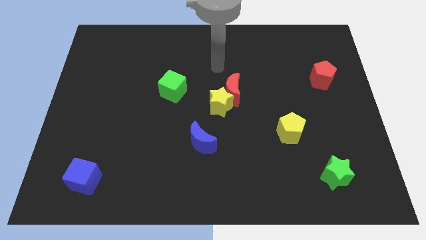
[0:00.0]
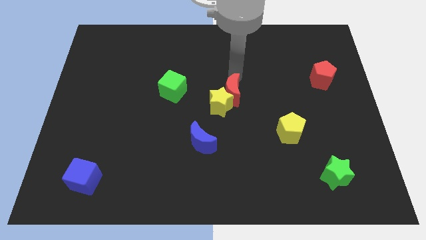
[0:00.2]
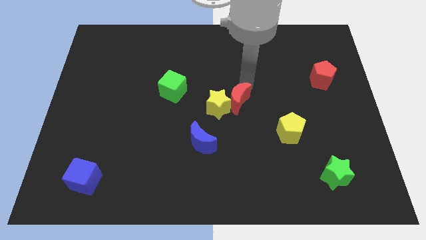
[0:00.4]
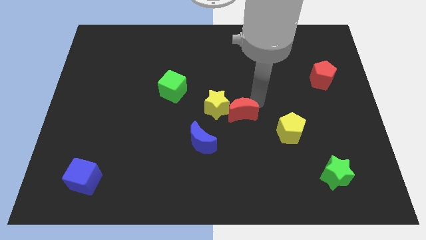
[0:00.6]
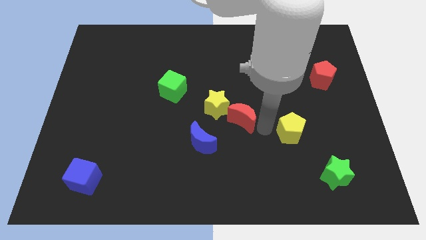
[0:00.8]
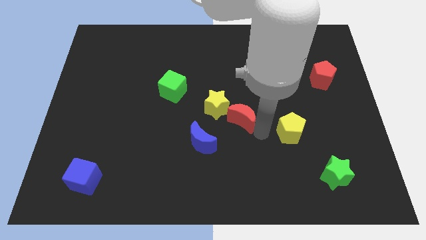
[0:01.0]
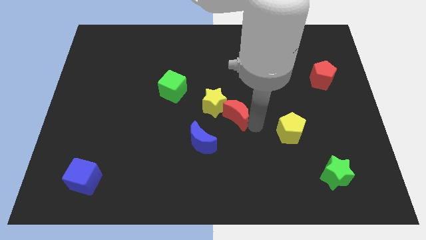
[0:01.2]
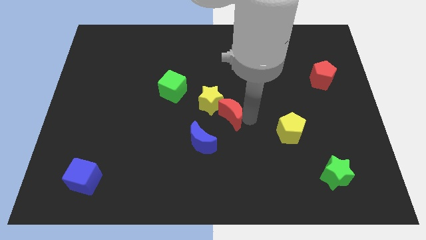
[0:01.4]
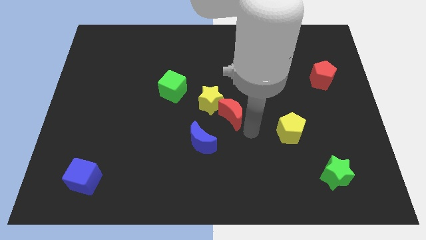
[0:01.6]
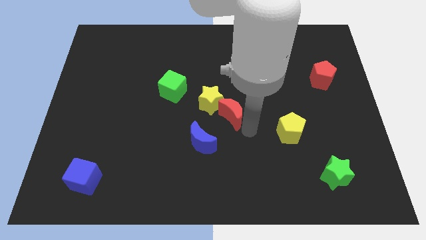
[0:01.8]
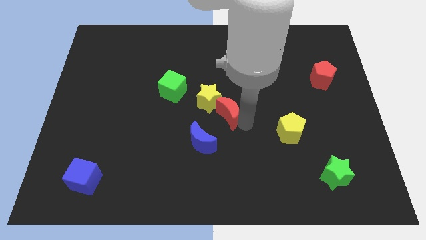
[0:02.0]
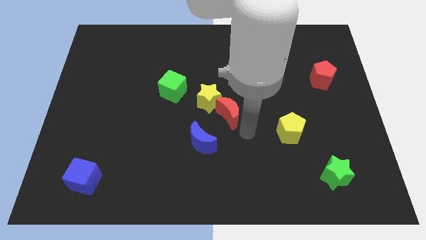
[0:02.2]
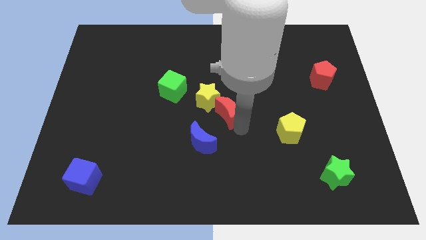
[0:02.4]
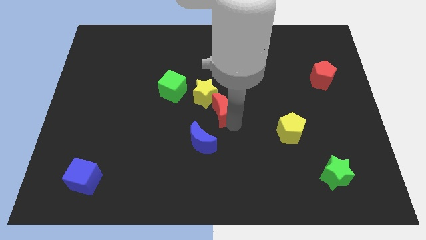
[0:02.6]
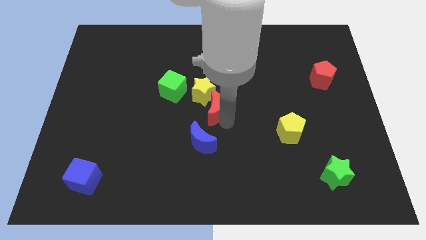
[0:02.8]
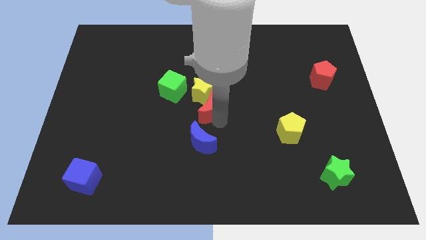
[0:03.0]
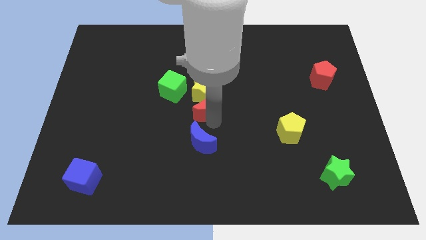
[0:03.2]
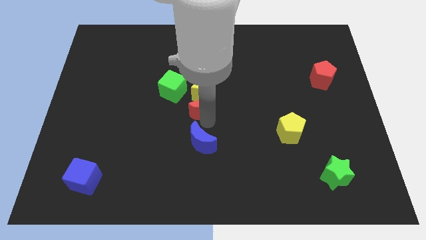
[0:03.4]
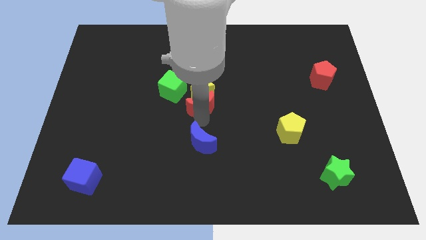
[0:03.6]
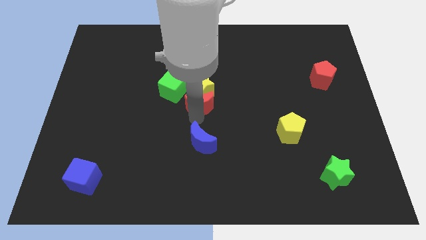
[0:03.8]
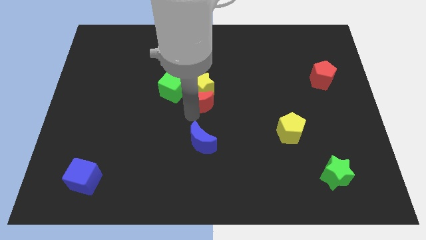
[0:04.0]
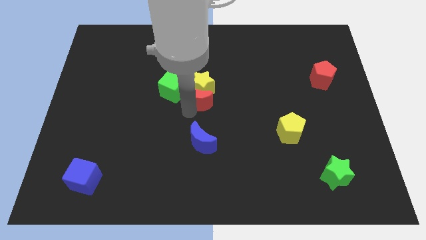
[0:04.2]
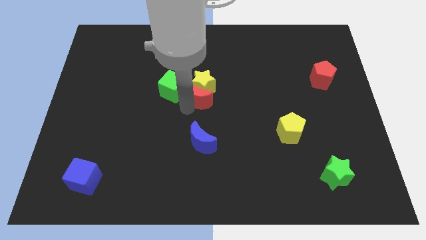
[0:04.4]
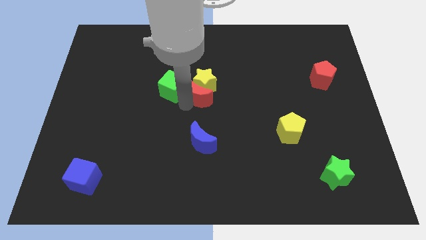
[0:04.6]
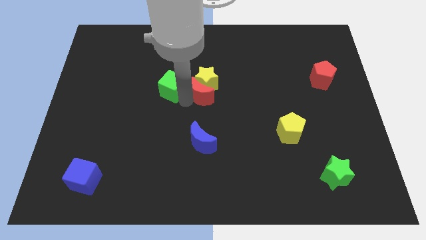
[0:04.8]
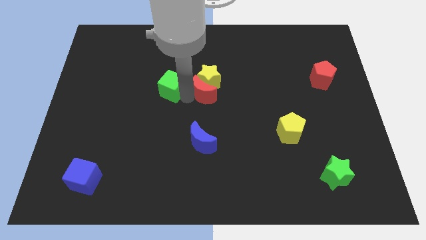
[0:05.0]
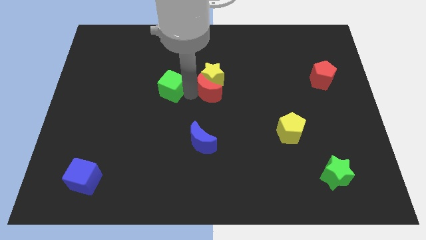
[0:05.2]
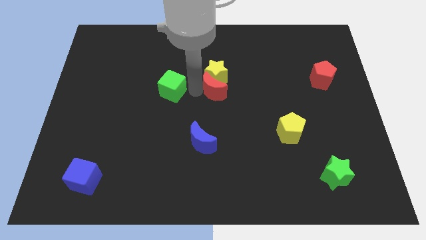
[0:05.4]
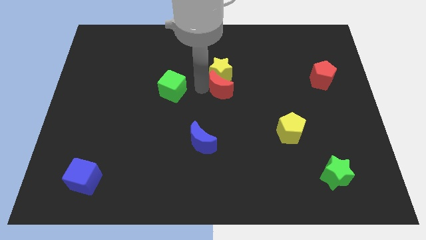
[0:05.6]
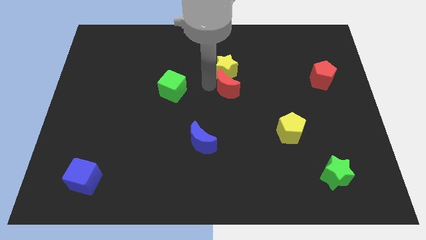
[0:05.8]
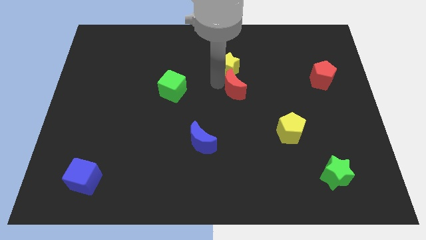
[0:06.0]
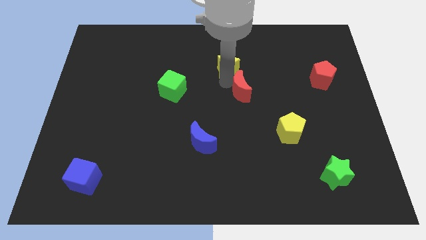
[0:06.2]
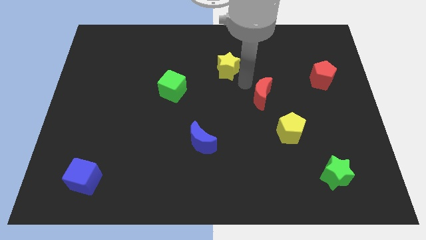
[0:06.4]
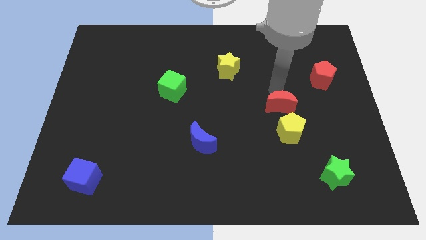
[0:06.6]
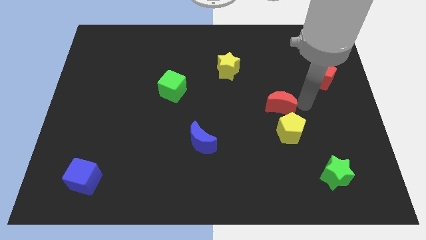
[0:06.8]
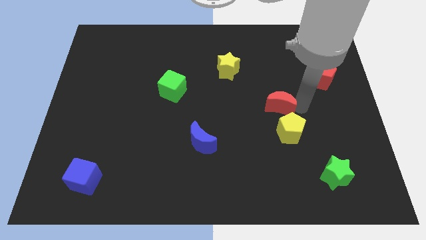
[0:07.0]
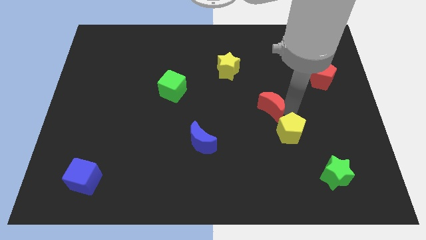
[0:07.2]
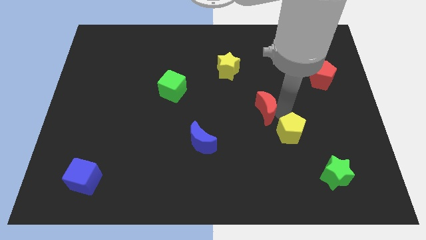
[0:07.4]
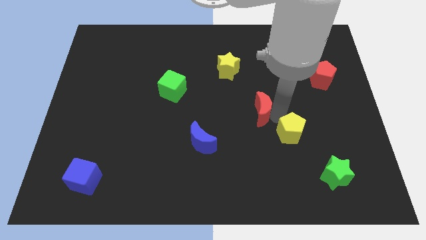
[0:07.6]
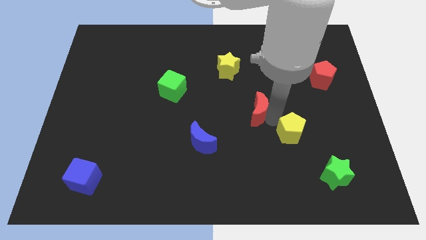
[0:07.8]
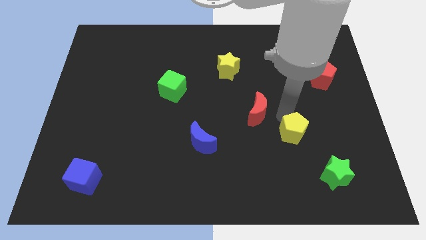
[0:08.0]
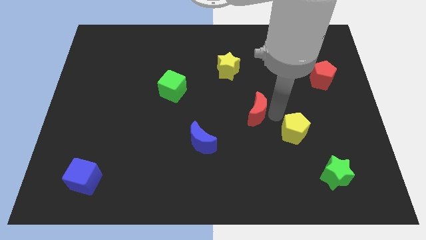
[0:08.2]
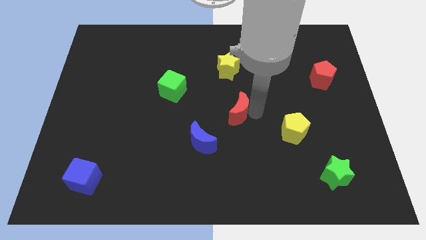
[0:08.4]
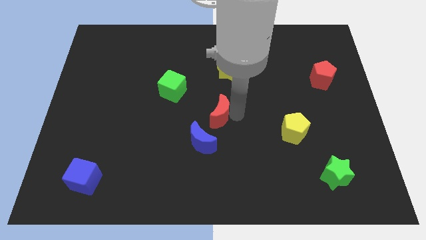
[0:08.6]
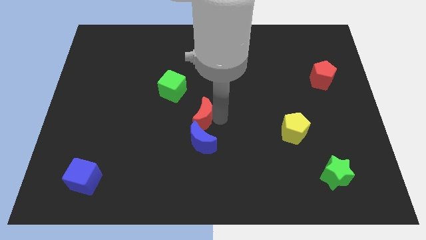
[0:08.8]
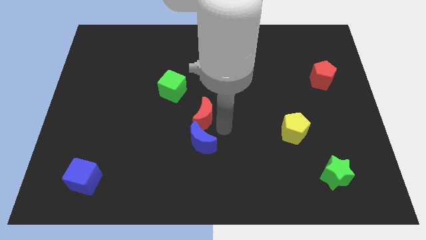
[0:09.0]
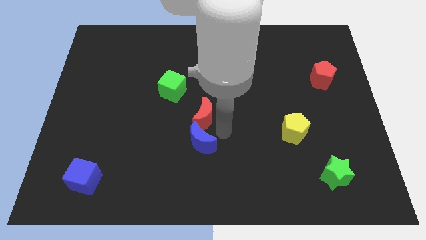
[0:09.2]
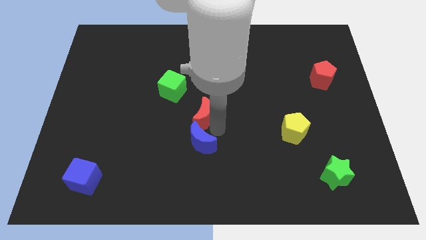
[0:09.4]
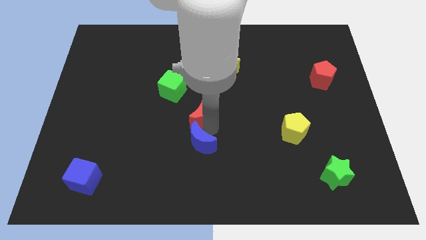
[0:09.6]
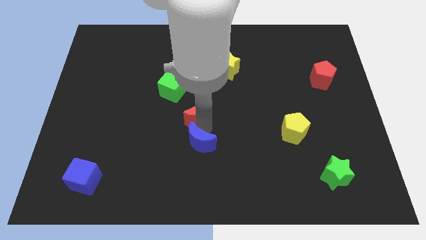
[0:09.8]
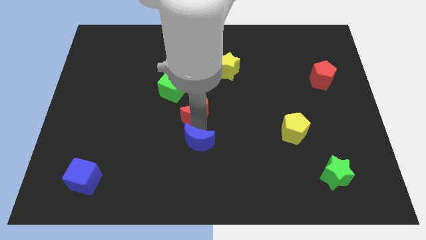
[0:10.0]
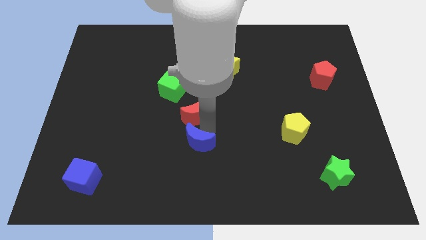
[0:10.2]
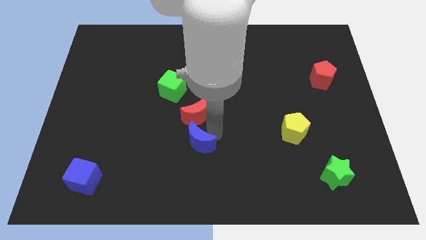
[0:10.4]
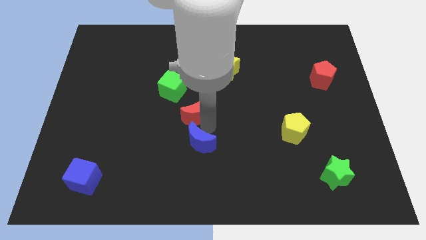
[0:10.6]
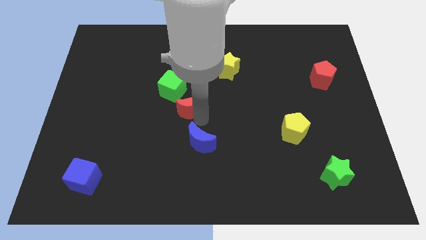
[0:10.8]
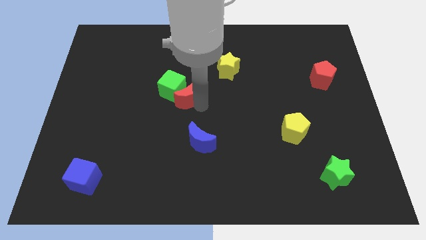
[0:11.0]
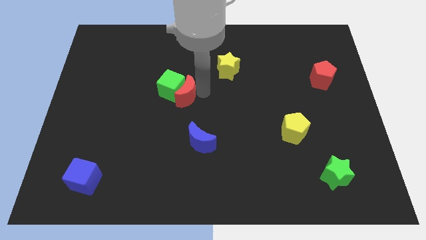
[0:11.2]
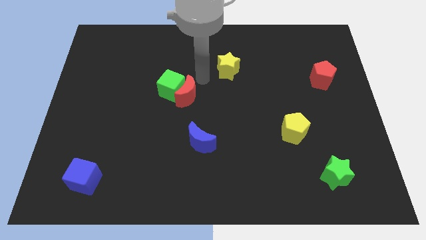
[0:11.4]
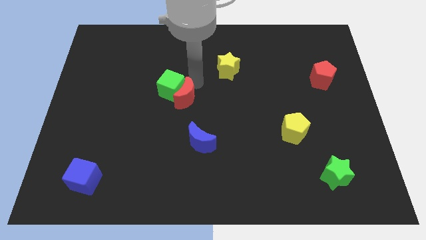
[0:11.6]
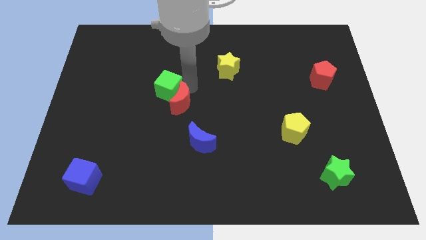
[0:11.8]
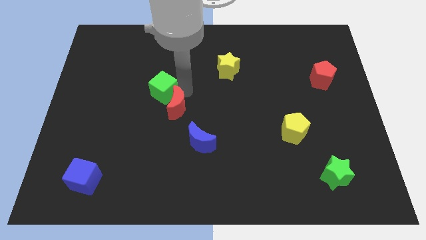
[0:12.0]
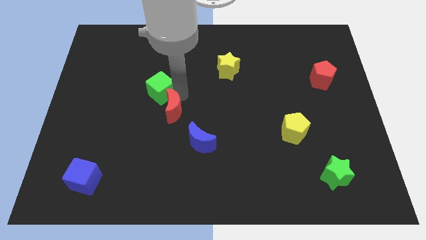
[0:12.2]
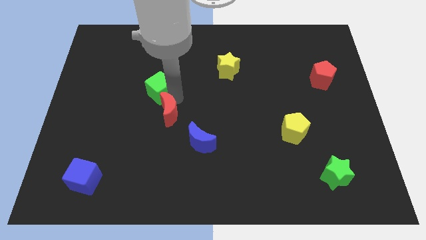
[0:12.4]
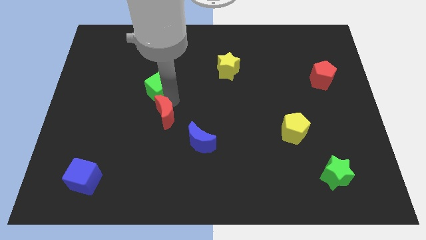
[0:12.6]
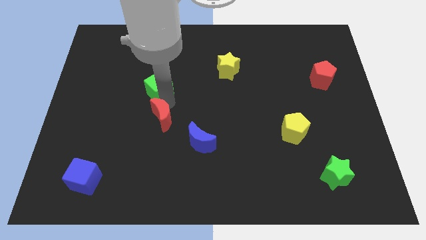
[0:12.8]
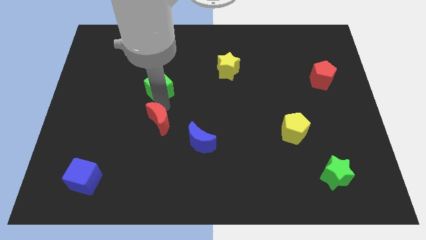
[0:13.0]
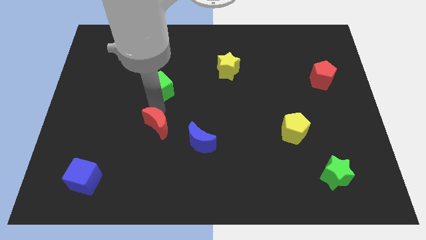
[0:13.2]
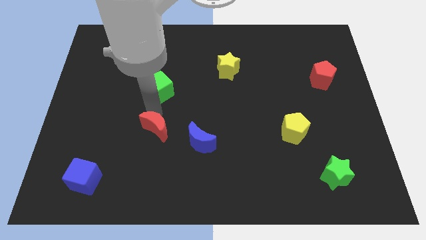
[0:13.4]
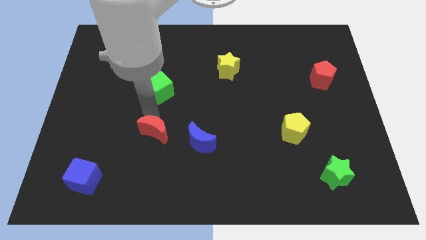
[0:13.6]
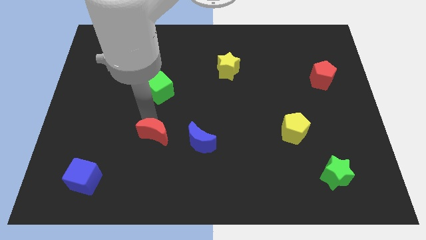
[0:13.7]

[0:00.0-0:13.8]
move the red moon downwards and left diagonally

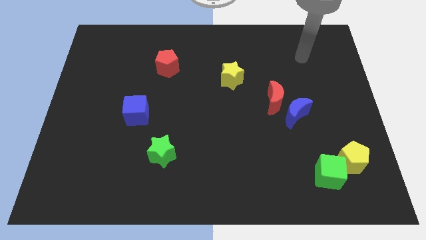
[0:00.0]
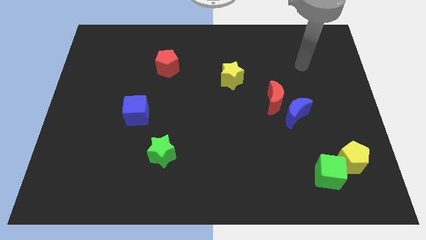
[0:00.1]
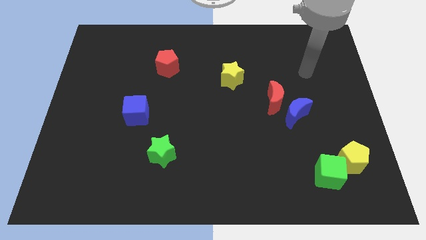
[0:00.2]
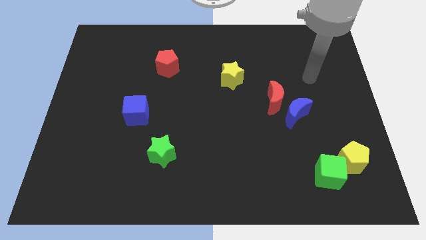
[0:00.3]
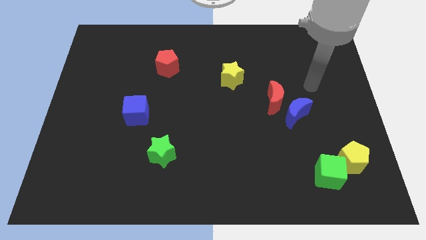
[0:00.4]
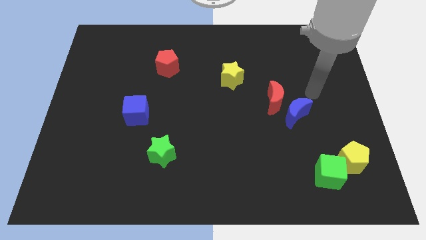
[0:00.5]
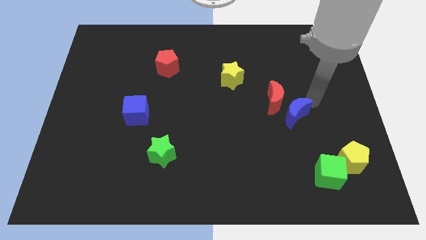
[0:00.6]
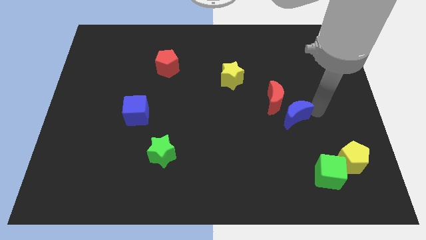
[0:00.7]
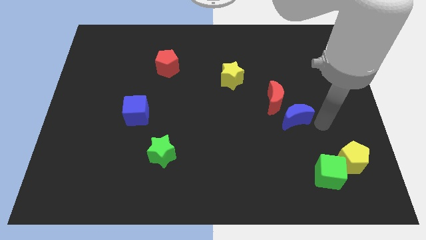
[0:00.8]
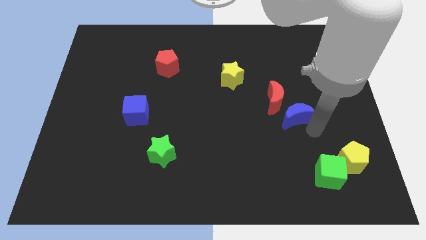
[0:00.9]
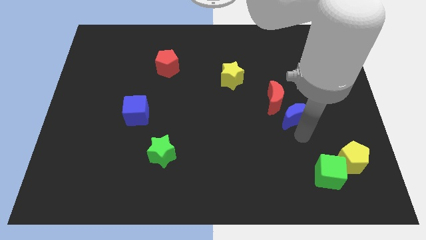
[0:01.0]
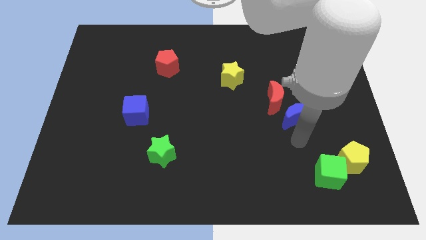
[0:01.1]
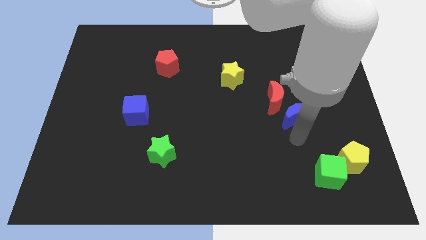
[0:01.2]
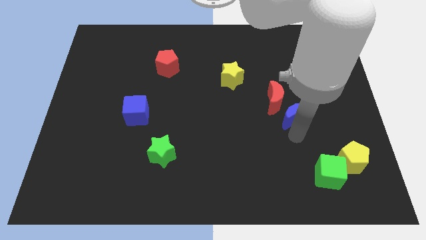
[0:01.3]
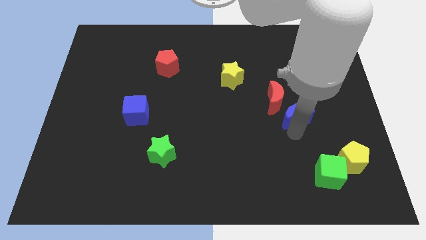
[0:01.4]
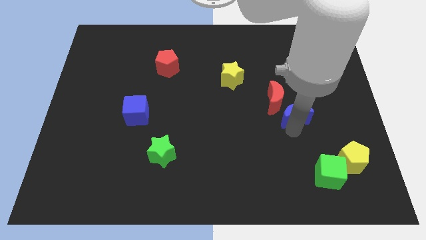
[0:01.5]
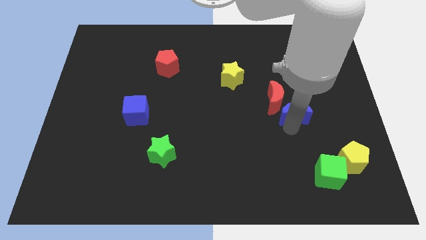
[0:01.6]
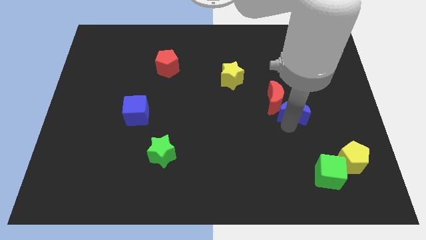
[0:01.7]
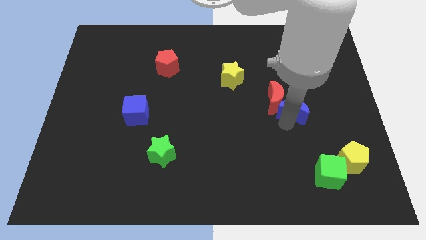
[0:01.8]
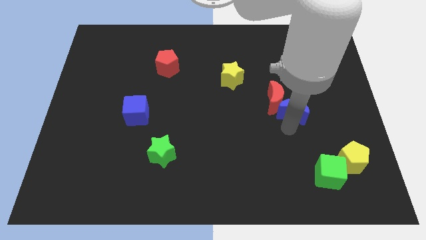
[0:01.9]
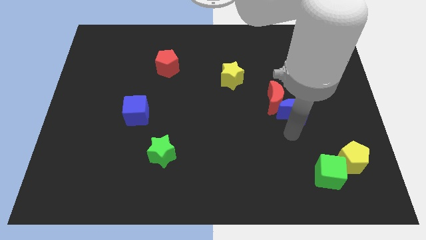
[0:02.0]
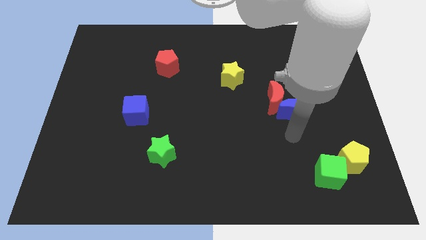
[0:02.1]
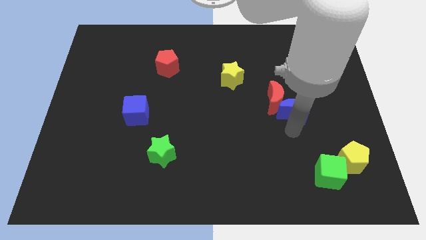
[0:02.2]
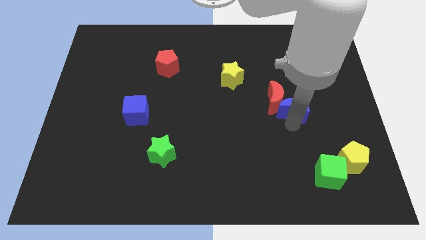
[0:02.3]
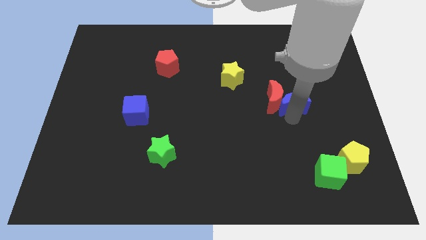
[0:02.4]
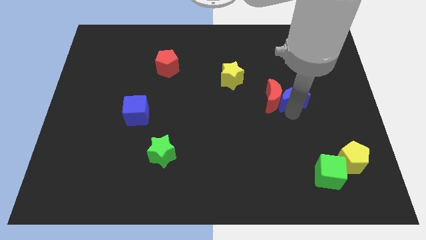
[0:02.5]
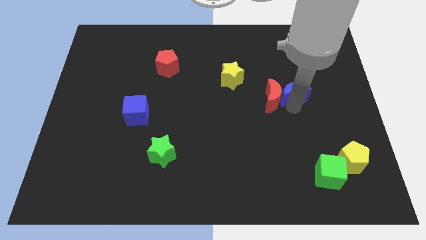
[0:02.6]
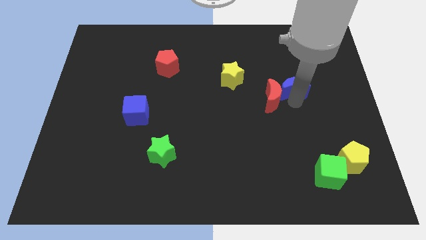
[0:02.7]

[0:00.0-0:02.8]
push the blue moon upwards a little
